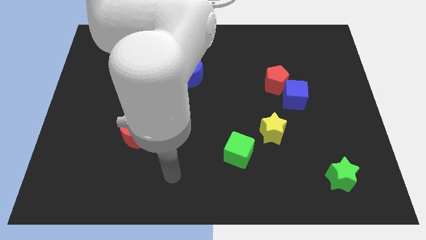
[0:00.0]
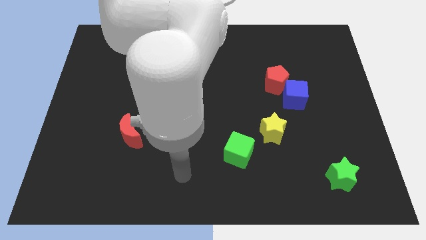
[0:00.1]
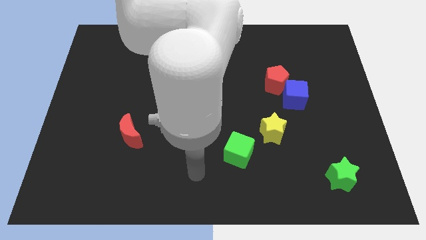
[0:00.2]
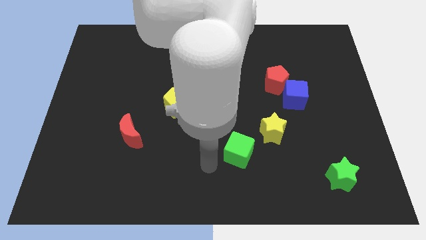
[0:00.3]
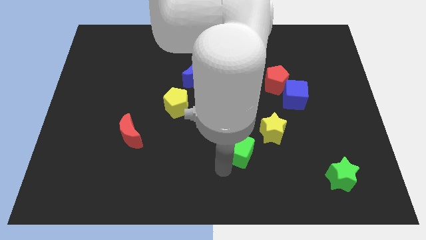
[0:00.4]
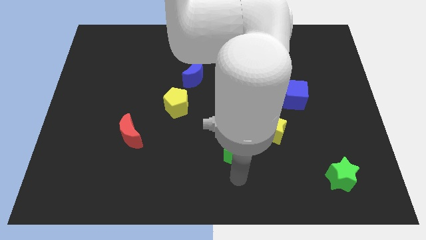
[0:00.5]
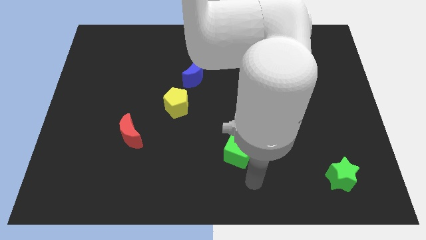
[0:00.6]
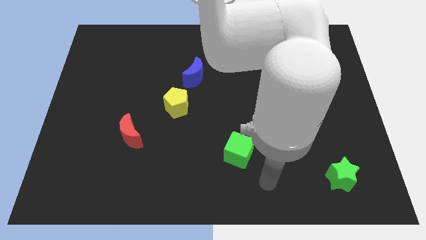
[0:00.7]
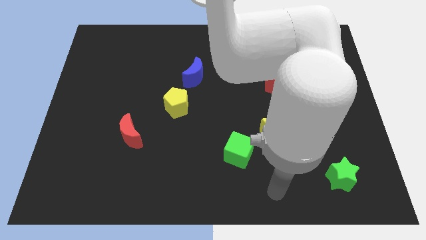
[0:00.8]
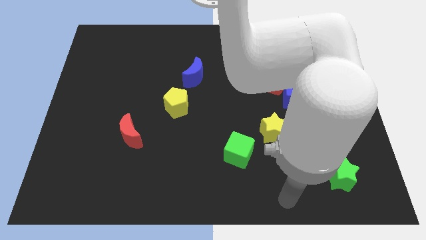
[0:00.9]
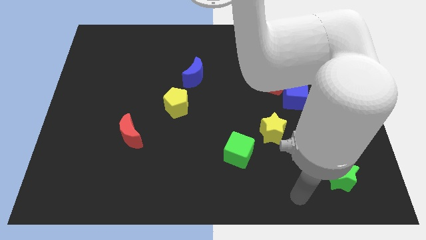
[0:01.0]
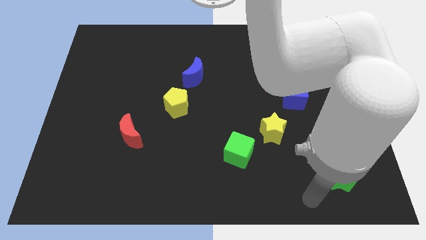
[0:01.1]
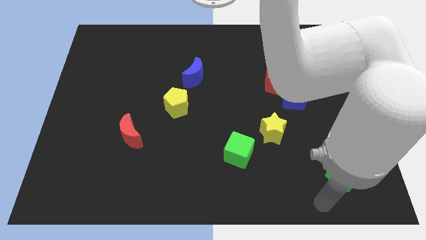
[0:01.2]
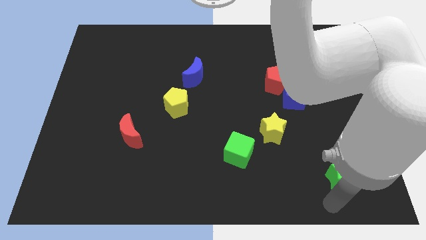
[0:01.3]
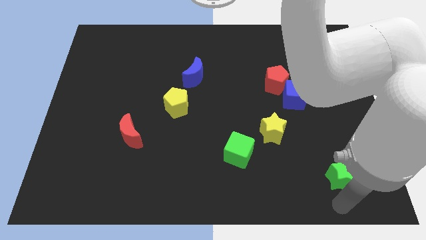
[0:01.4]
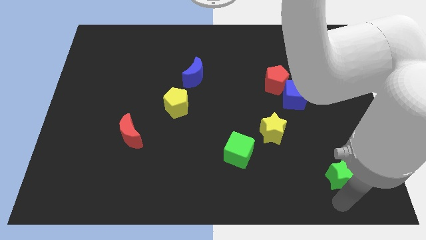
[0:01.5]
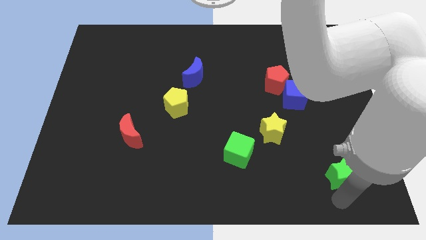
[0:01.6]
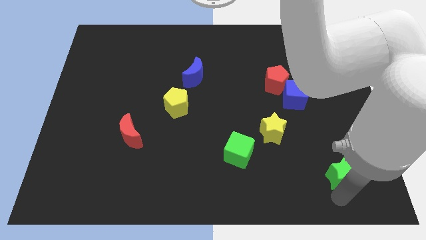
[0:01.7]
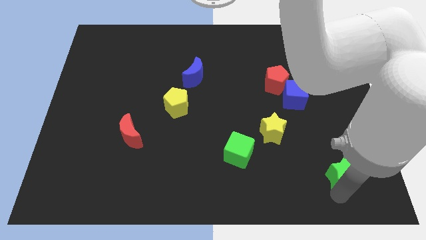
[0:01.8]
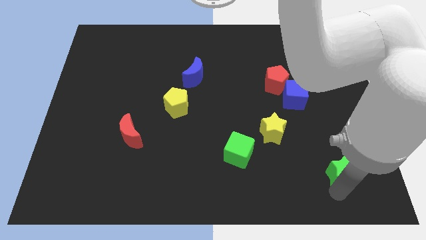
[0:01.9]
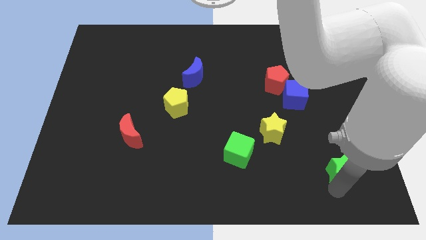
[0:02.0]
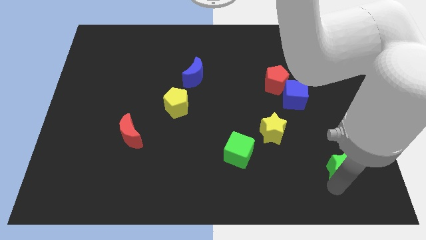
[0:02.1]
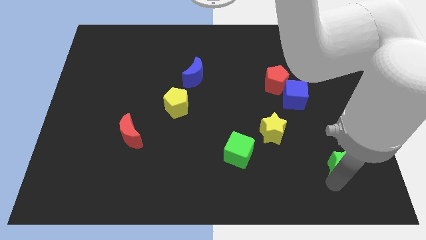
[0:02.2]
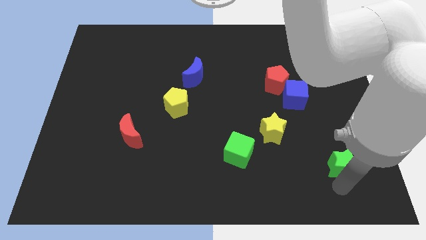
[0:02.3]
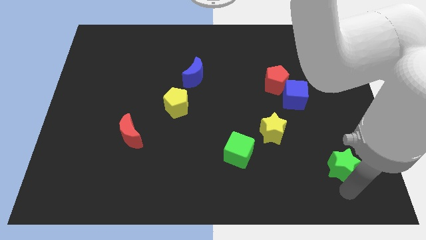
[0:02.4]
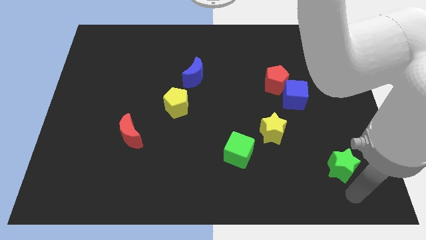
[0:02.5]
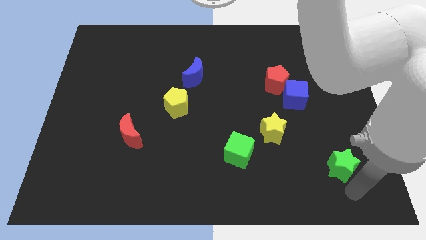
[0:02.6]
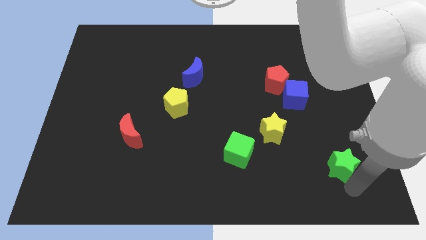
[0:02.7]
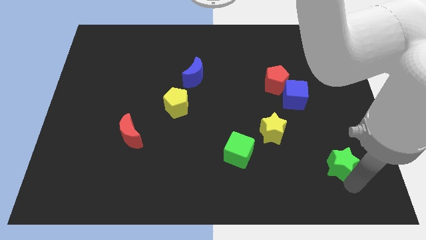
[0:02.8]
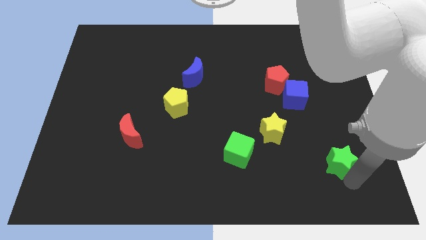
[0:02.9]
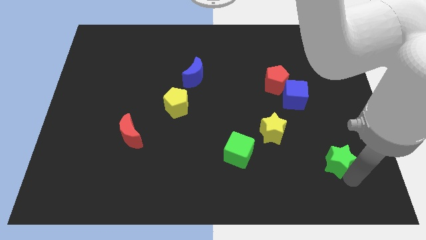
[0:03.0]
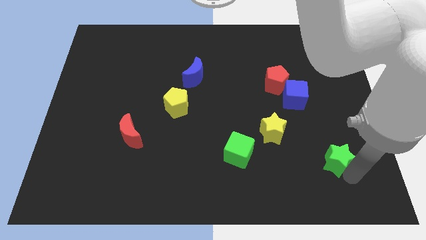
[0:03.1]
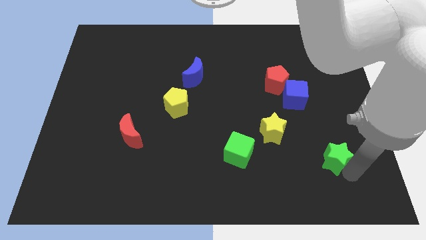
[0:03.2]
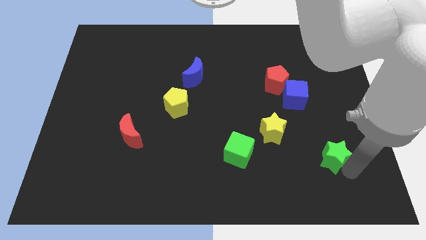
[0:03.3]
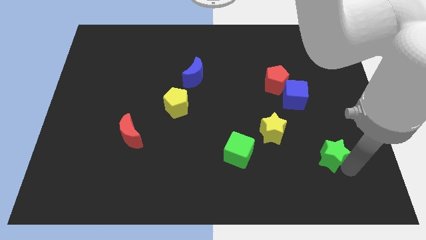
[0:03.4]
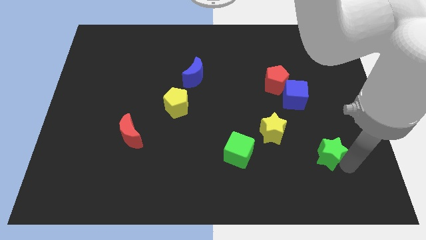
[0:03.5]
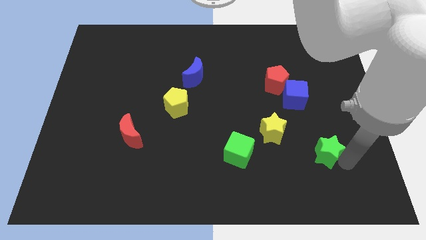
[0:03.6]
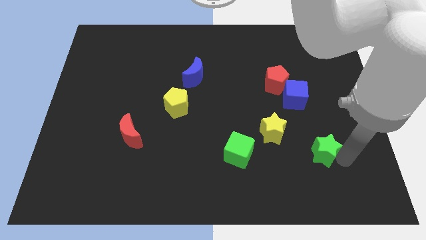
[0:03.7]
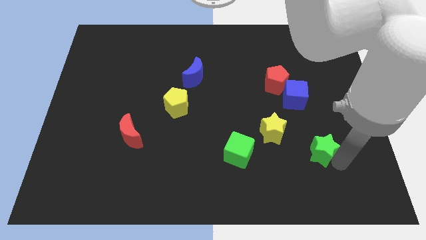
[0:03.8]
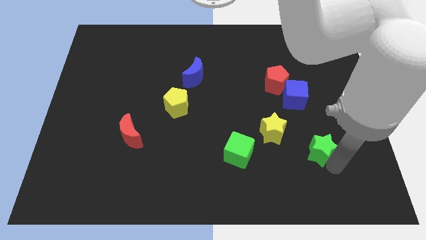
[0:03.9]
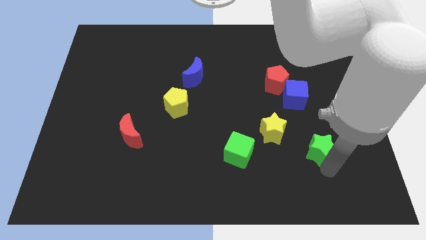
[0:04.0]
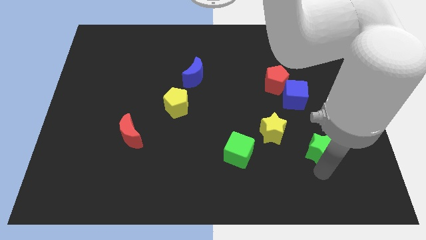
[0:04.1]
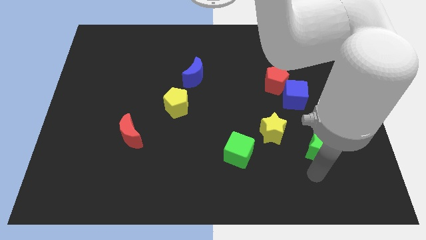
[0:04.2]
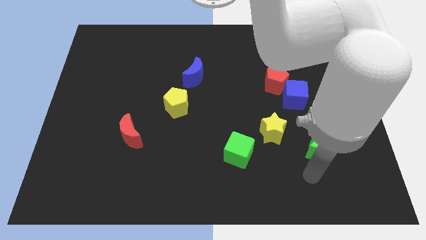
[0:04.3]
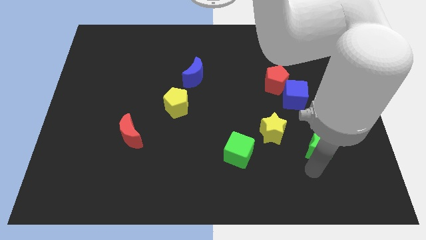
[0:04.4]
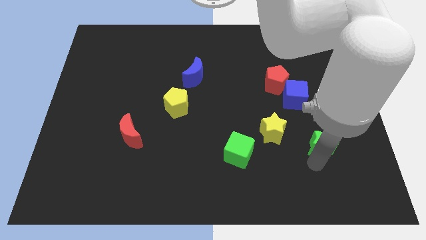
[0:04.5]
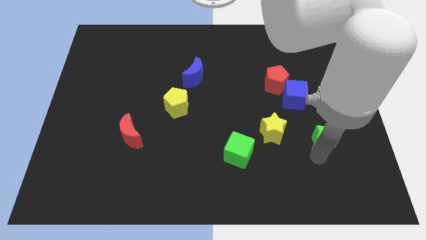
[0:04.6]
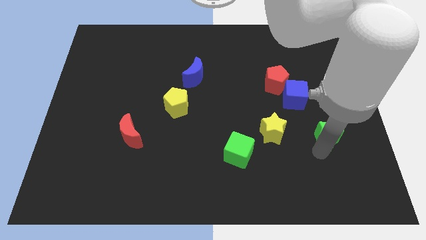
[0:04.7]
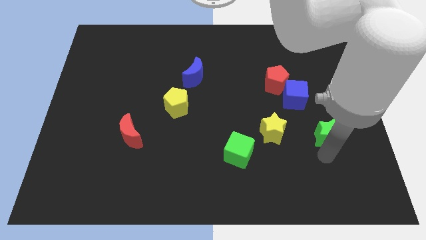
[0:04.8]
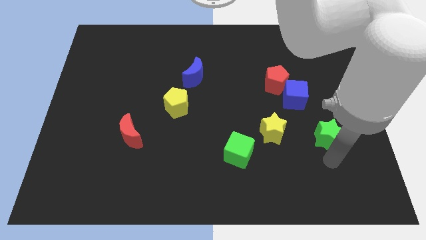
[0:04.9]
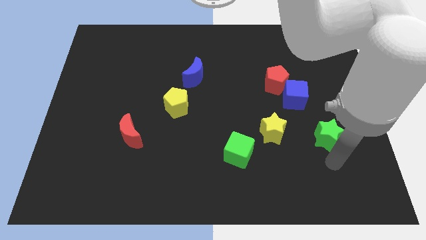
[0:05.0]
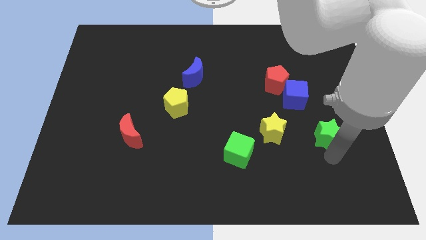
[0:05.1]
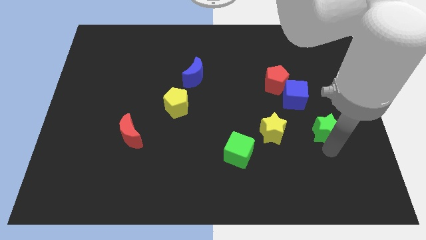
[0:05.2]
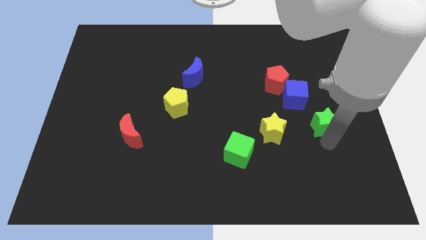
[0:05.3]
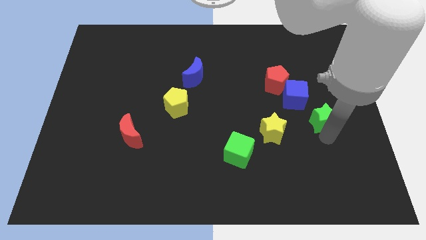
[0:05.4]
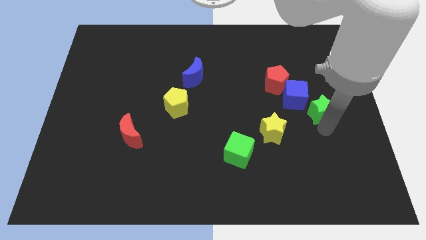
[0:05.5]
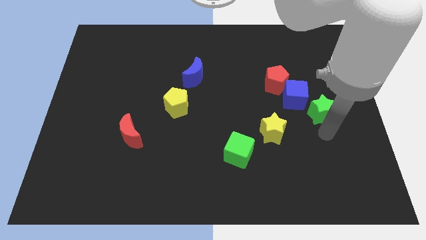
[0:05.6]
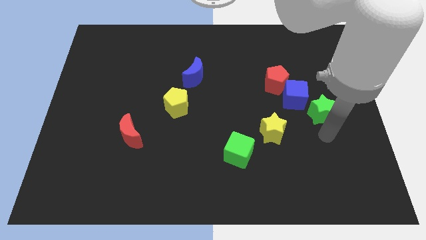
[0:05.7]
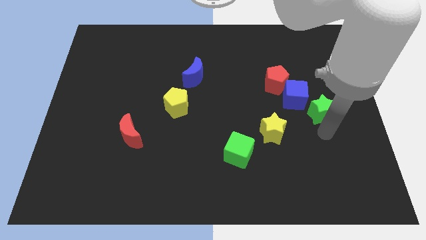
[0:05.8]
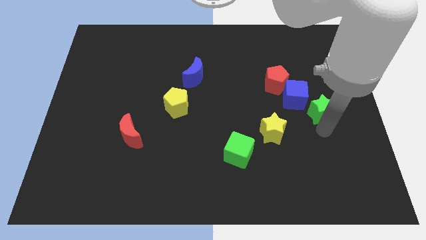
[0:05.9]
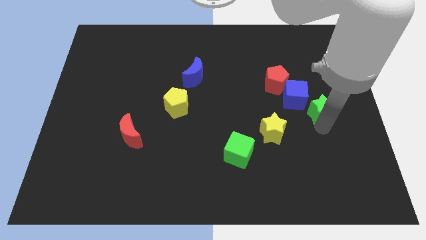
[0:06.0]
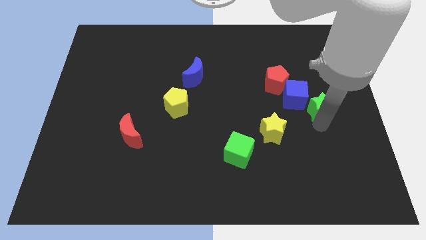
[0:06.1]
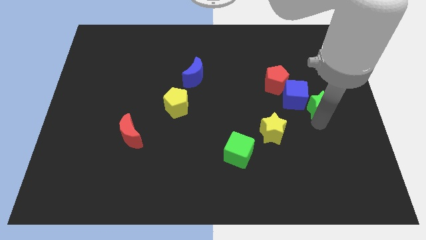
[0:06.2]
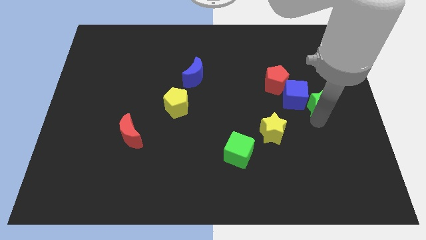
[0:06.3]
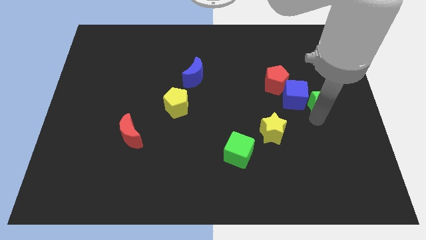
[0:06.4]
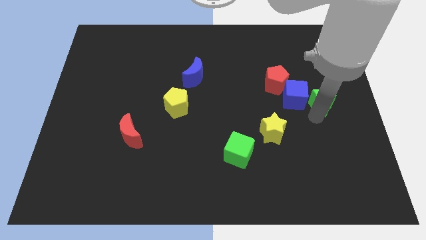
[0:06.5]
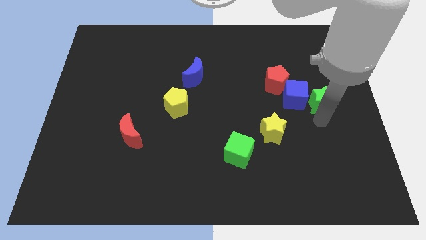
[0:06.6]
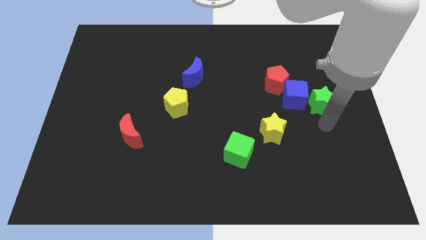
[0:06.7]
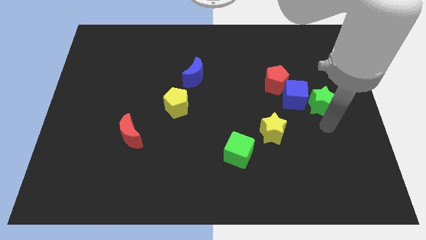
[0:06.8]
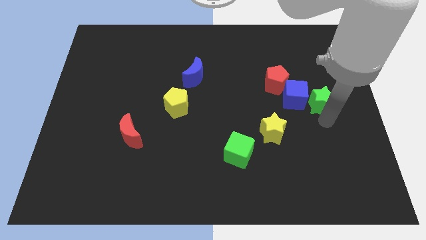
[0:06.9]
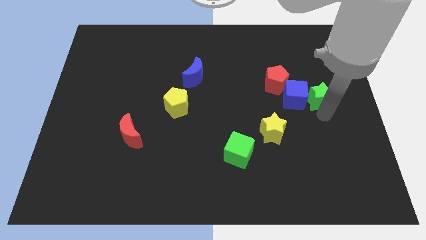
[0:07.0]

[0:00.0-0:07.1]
push the green star upwards

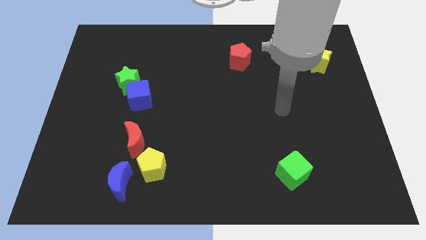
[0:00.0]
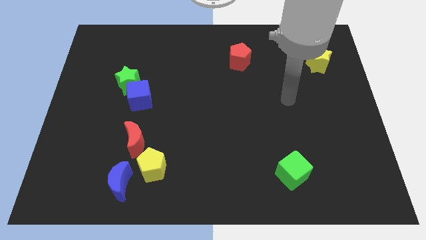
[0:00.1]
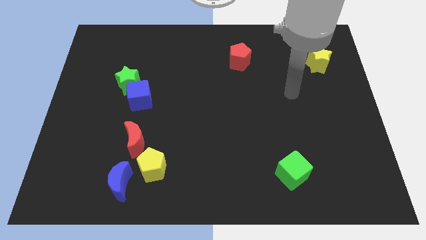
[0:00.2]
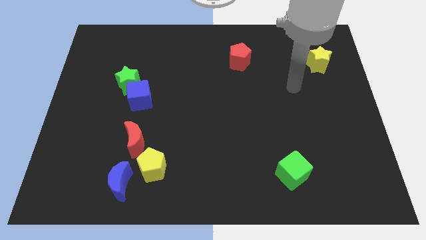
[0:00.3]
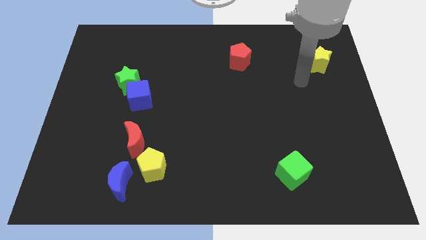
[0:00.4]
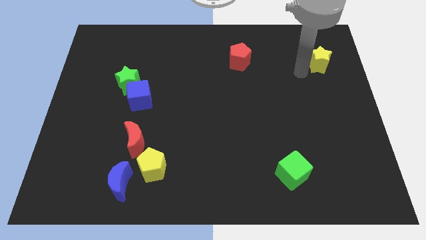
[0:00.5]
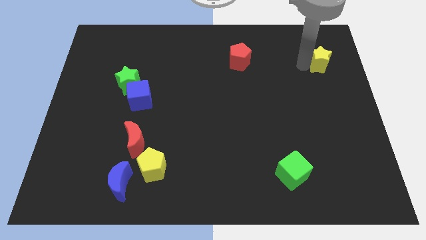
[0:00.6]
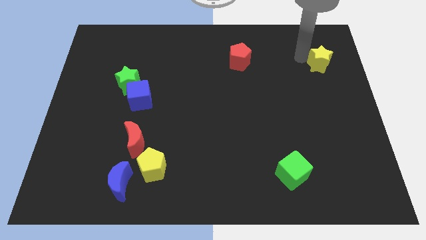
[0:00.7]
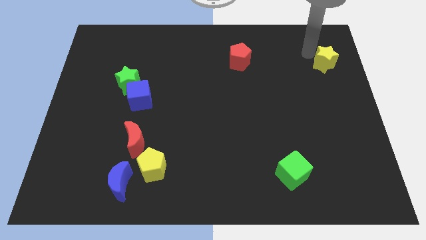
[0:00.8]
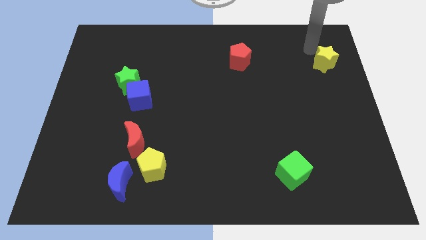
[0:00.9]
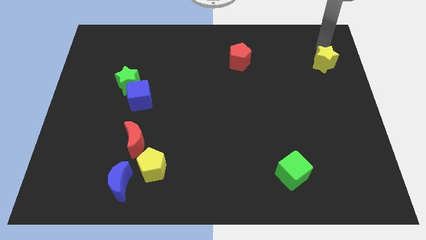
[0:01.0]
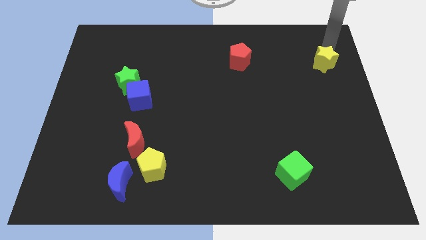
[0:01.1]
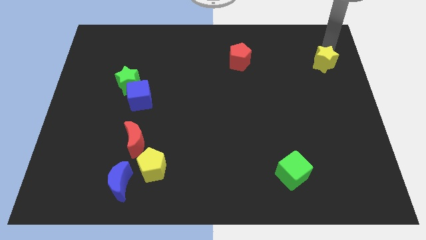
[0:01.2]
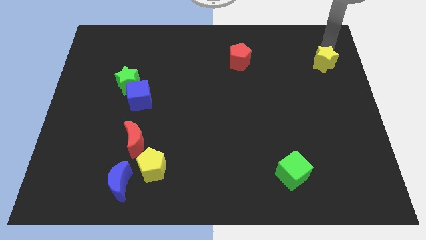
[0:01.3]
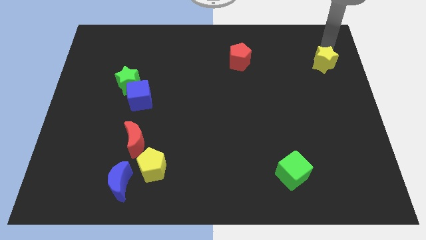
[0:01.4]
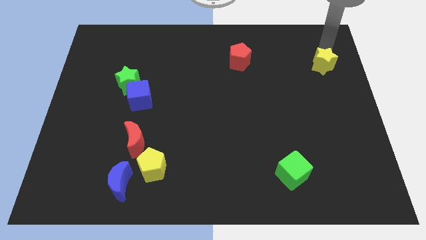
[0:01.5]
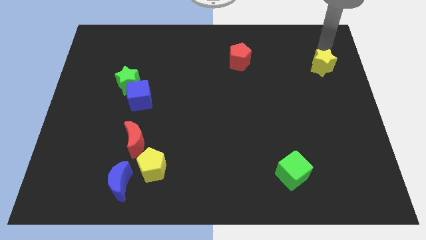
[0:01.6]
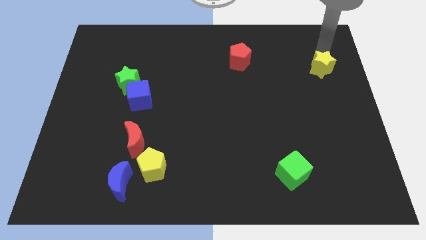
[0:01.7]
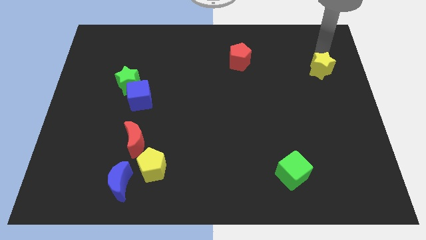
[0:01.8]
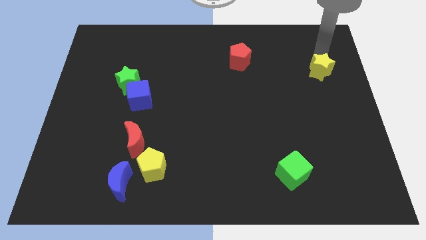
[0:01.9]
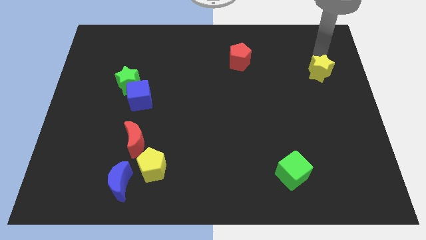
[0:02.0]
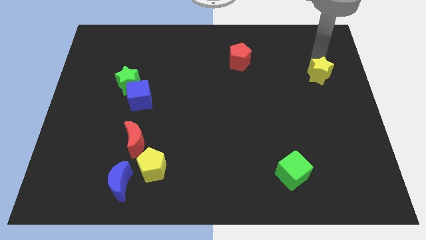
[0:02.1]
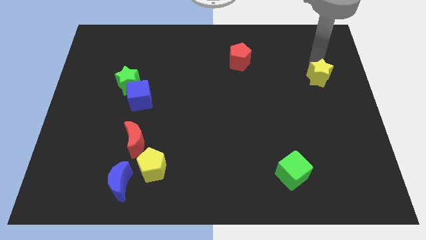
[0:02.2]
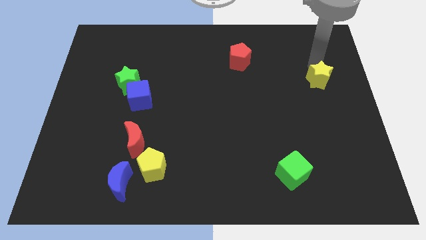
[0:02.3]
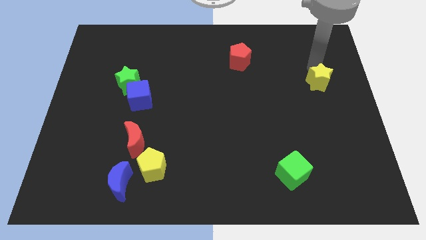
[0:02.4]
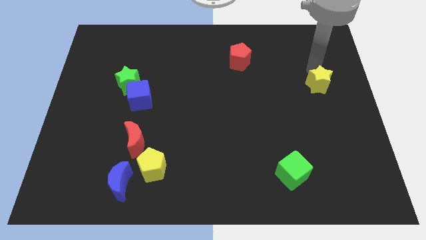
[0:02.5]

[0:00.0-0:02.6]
push the yellow star somewhat down
